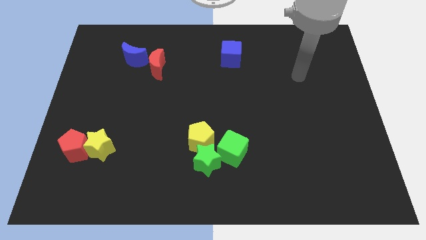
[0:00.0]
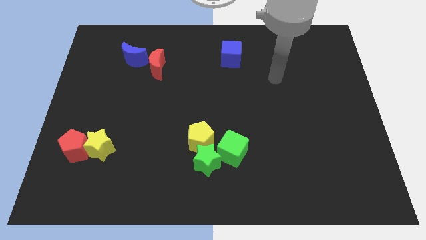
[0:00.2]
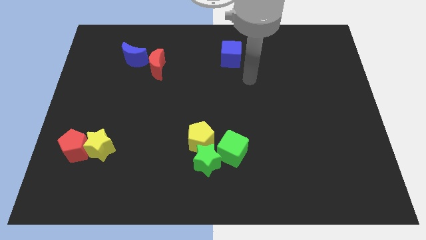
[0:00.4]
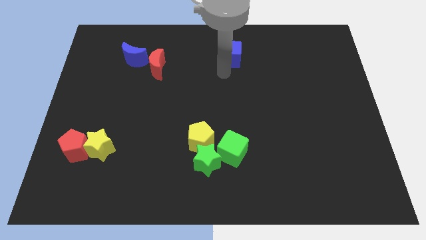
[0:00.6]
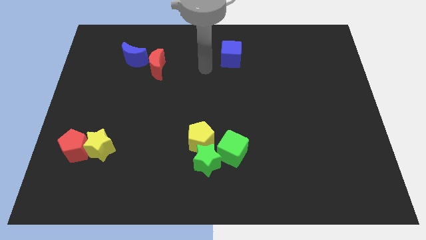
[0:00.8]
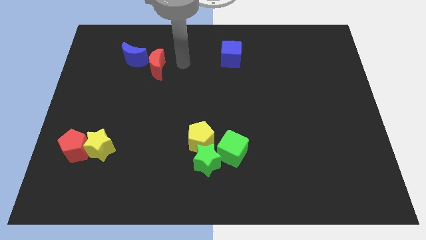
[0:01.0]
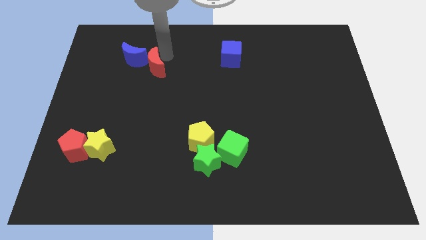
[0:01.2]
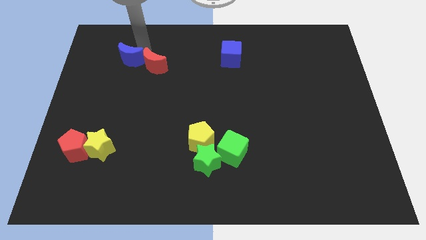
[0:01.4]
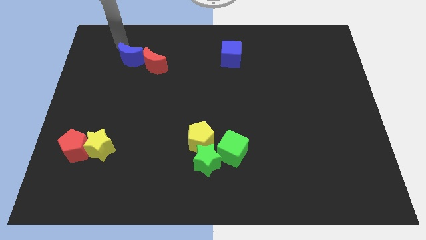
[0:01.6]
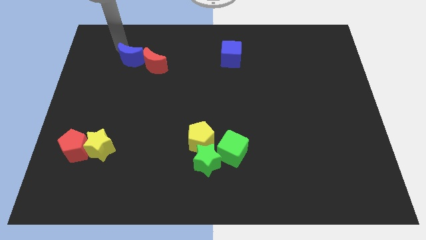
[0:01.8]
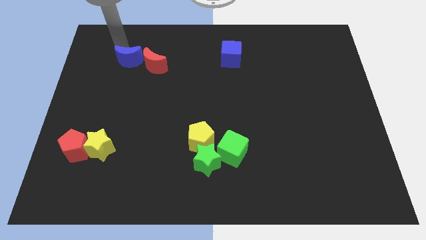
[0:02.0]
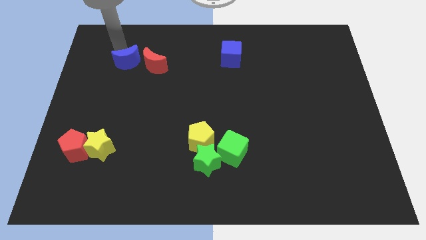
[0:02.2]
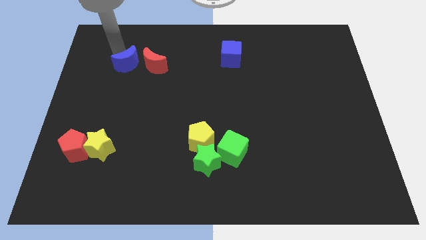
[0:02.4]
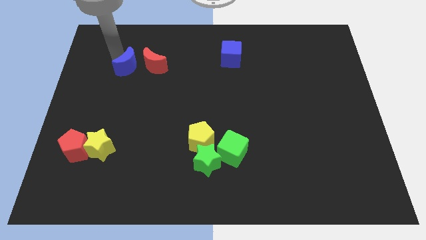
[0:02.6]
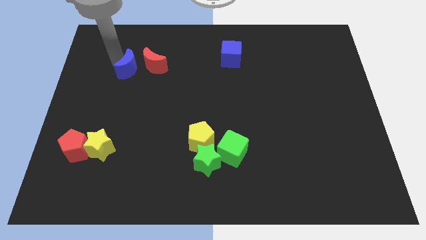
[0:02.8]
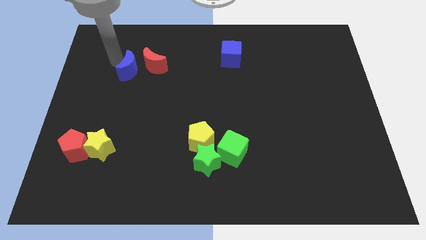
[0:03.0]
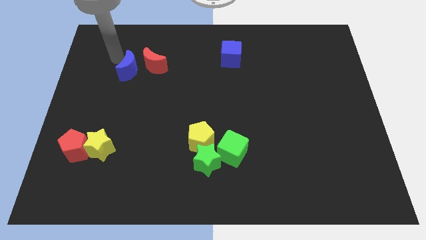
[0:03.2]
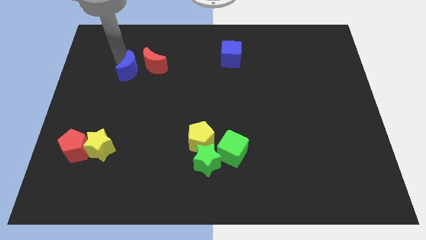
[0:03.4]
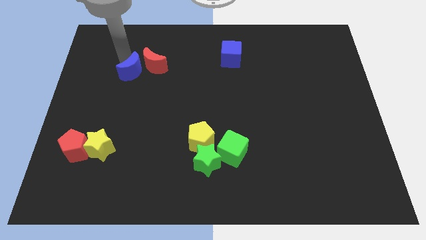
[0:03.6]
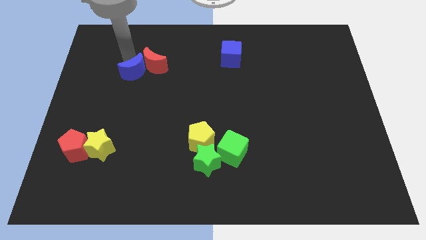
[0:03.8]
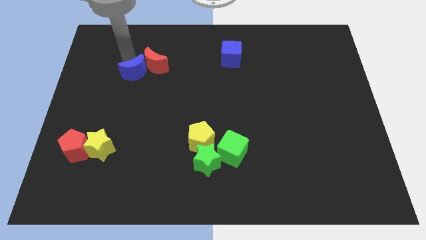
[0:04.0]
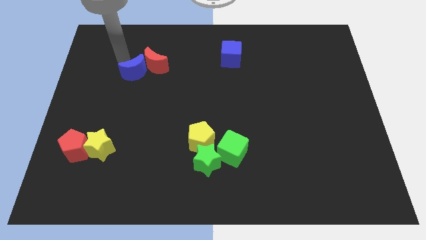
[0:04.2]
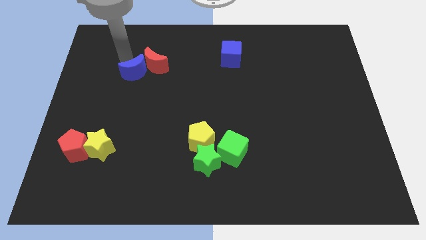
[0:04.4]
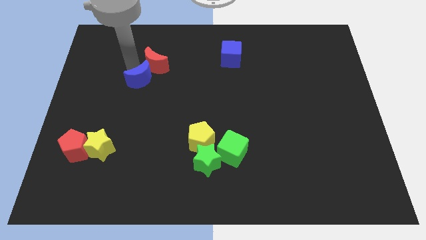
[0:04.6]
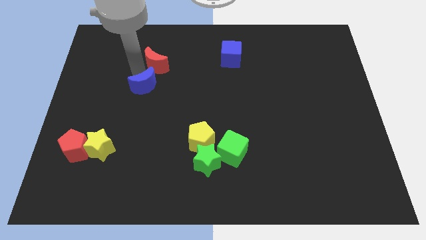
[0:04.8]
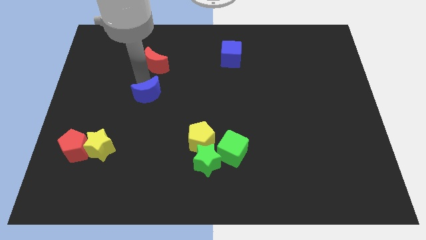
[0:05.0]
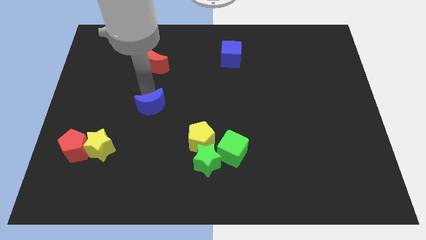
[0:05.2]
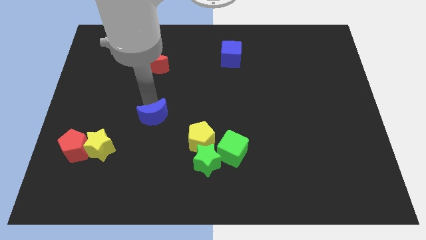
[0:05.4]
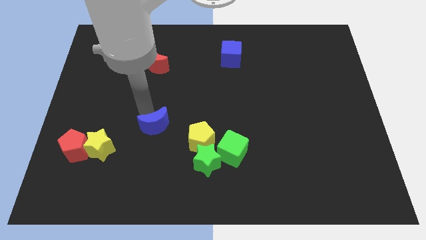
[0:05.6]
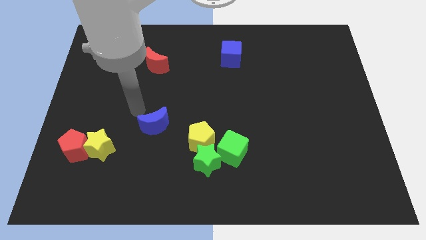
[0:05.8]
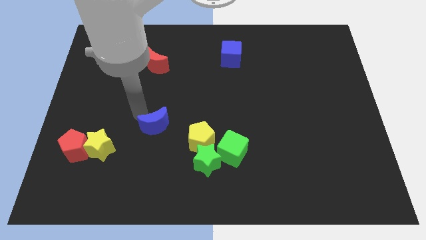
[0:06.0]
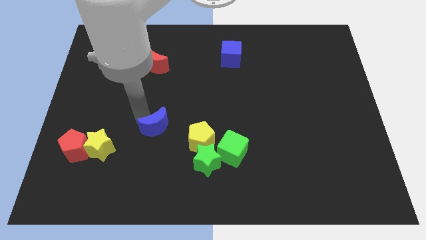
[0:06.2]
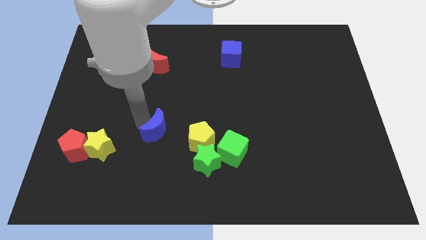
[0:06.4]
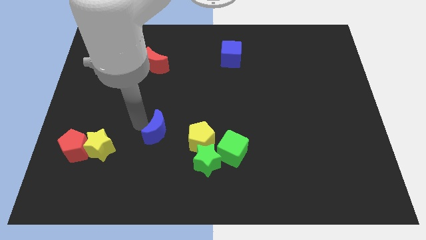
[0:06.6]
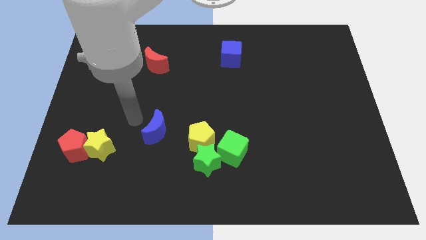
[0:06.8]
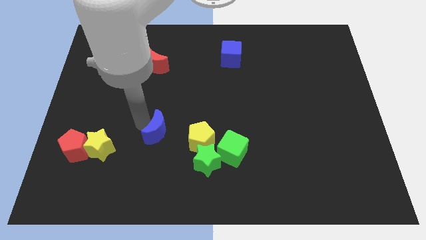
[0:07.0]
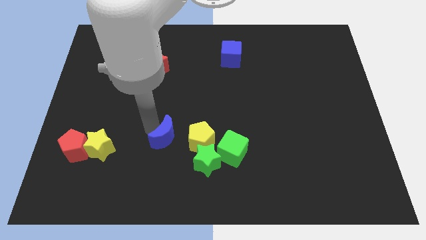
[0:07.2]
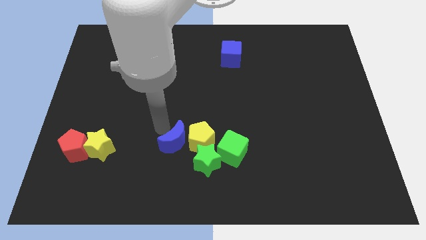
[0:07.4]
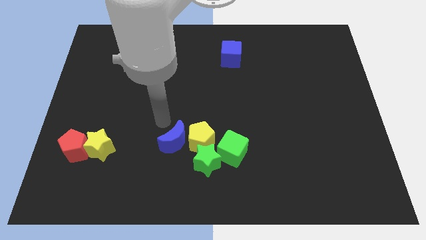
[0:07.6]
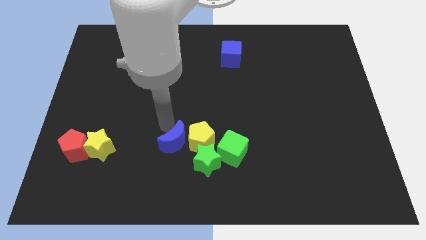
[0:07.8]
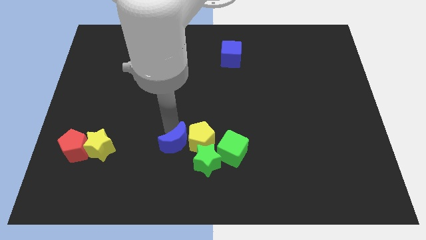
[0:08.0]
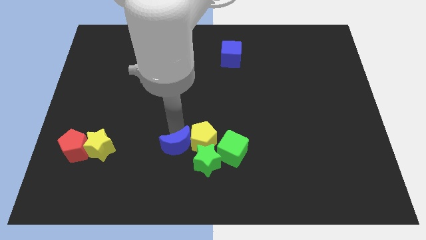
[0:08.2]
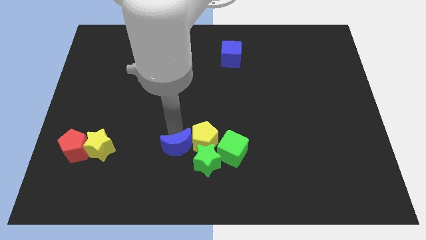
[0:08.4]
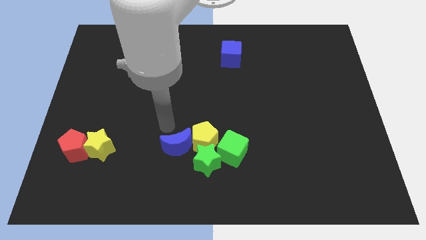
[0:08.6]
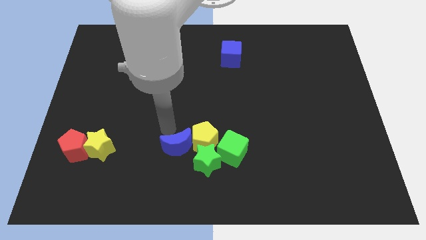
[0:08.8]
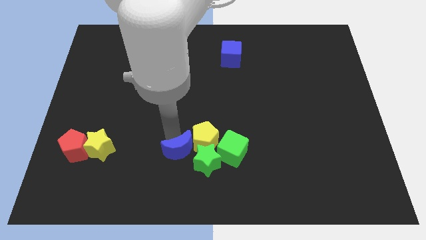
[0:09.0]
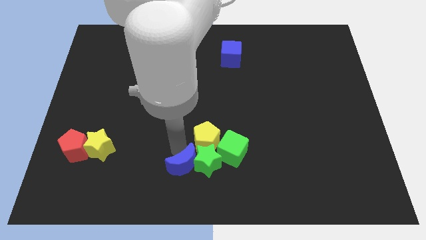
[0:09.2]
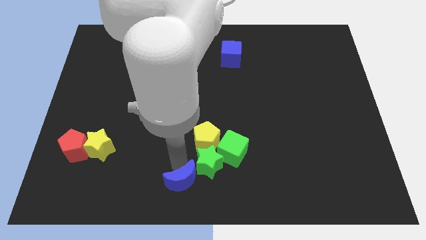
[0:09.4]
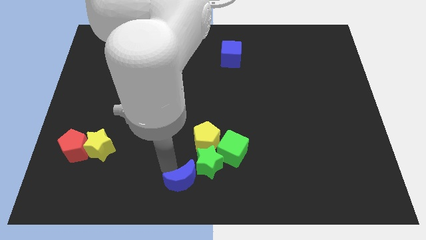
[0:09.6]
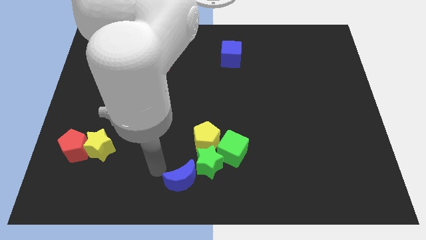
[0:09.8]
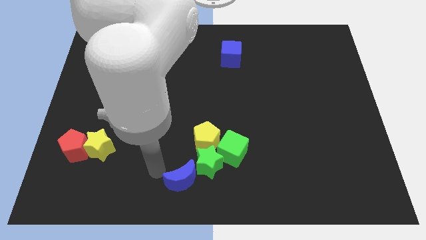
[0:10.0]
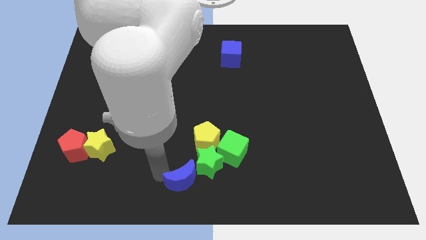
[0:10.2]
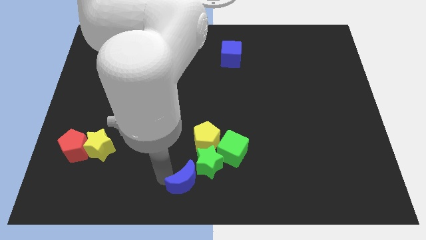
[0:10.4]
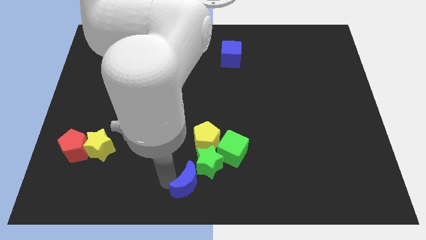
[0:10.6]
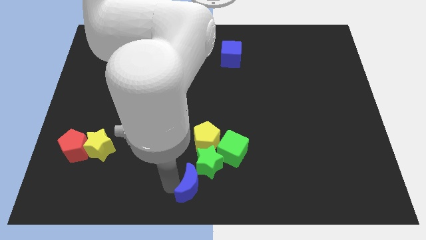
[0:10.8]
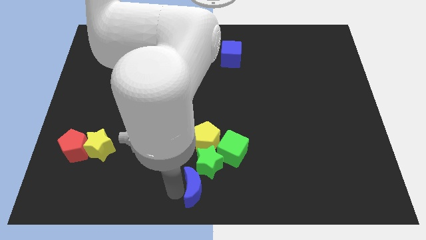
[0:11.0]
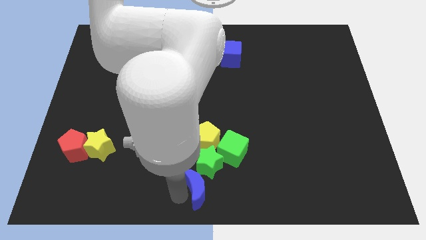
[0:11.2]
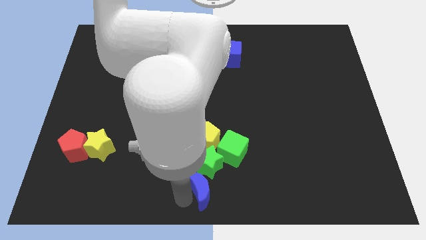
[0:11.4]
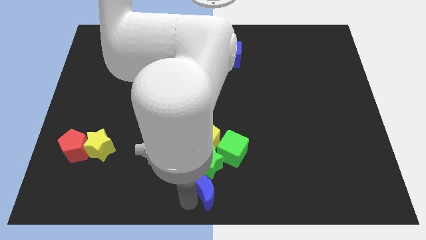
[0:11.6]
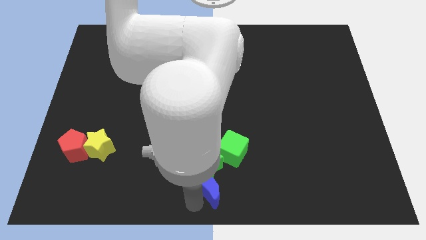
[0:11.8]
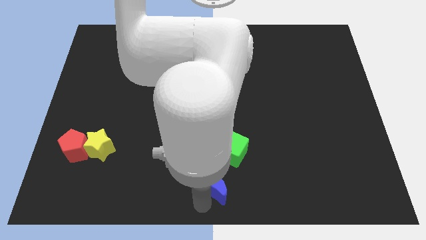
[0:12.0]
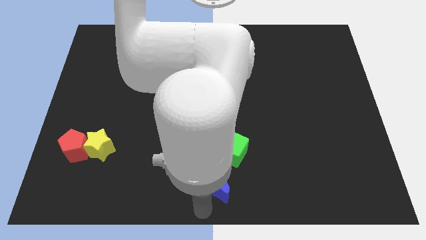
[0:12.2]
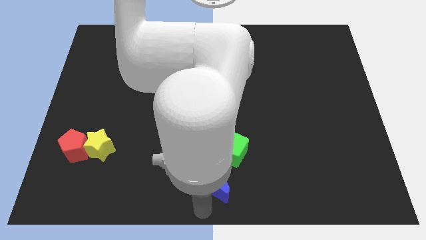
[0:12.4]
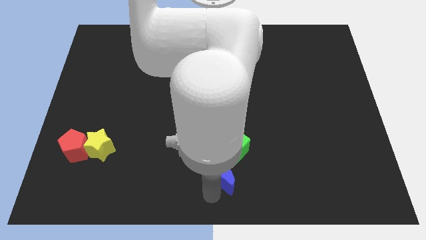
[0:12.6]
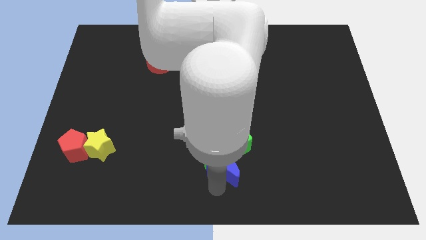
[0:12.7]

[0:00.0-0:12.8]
slide the blue moon to the bottom right side of the yellow pentagon
